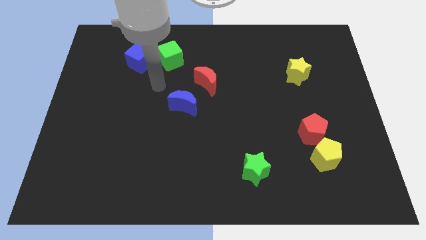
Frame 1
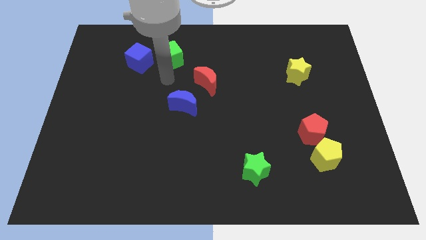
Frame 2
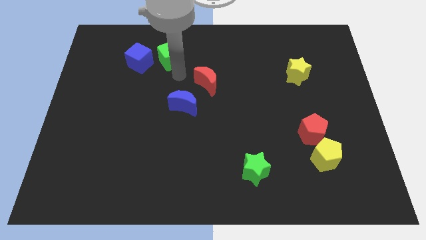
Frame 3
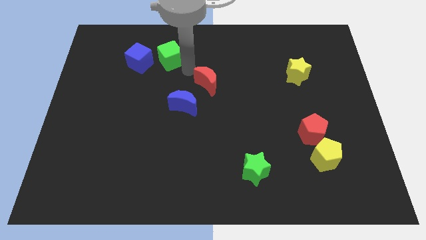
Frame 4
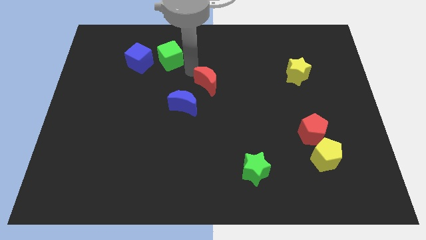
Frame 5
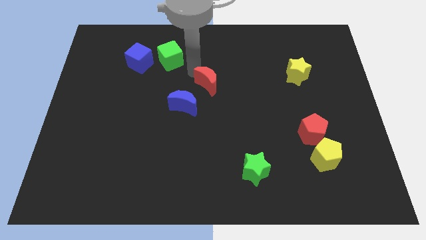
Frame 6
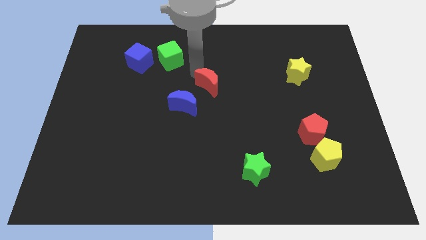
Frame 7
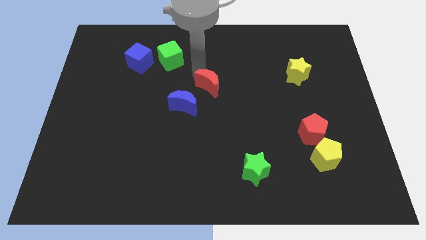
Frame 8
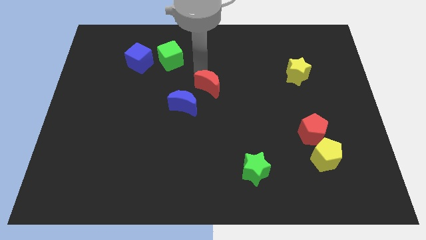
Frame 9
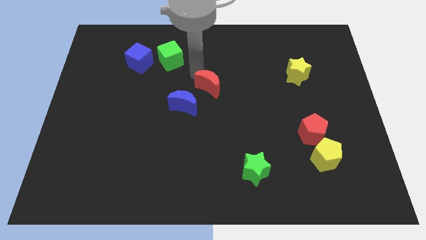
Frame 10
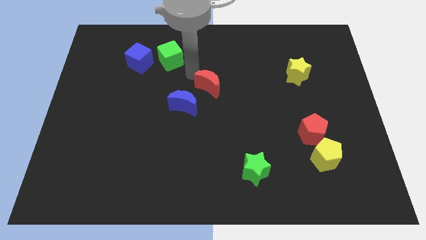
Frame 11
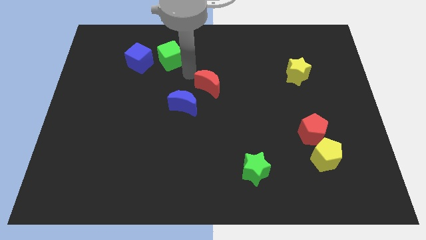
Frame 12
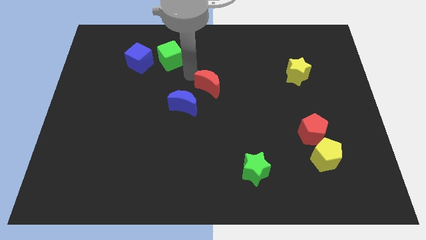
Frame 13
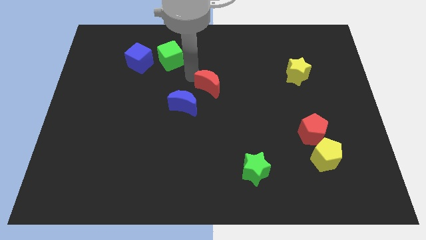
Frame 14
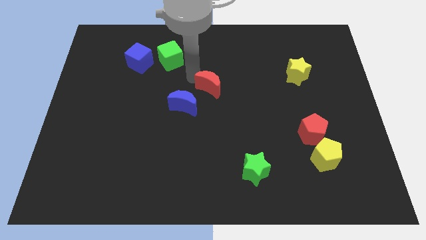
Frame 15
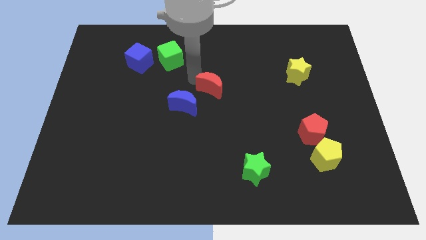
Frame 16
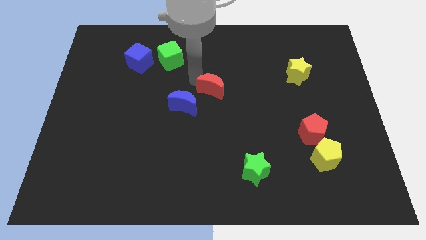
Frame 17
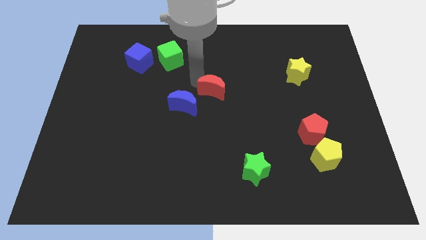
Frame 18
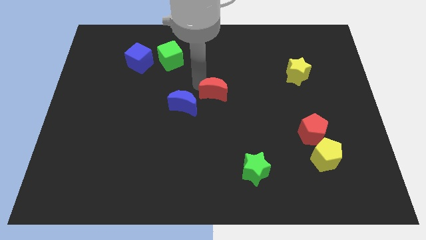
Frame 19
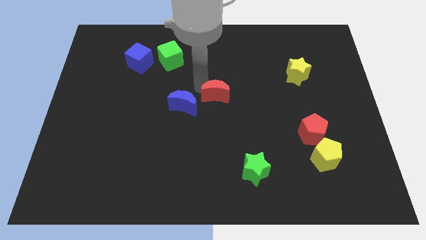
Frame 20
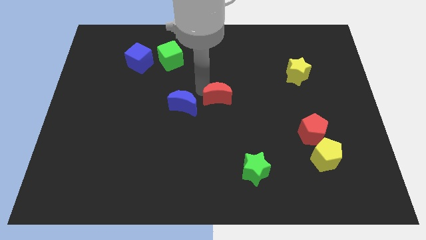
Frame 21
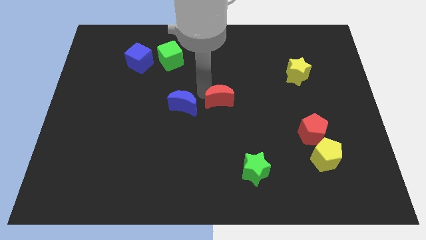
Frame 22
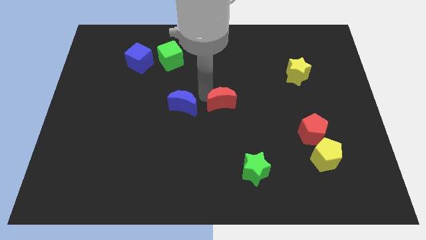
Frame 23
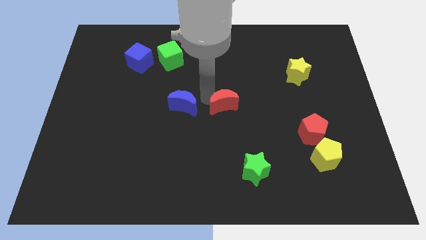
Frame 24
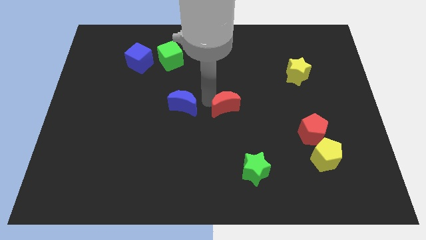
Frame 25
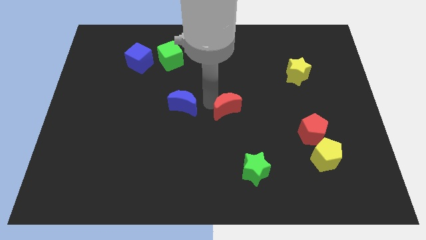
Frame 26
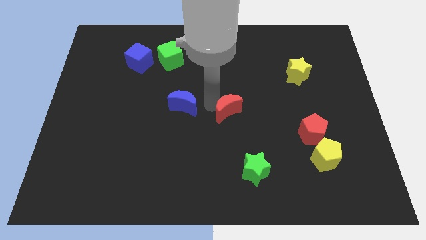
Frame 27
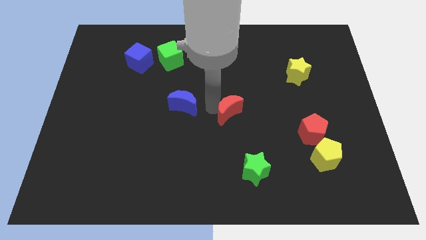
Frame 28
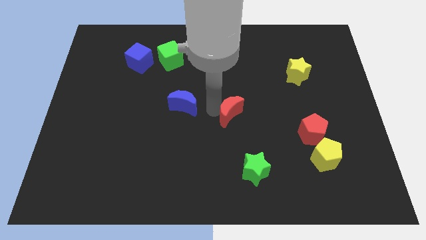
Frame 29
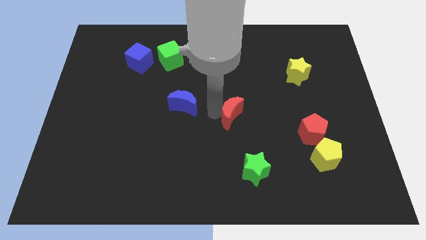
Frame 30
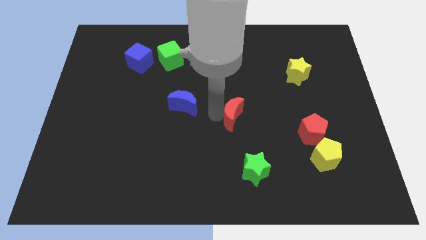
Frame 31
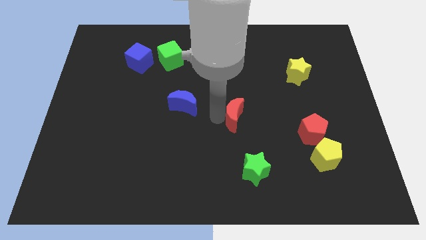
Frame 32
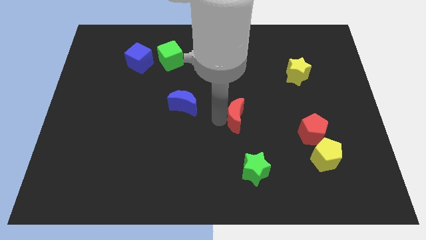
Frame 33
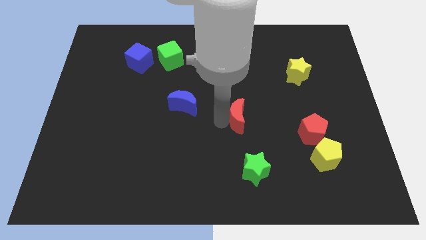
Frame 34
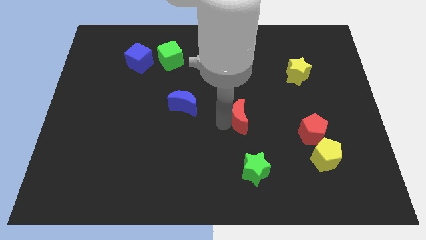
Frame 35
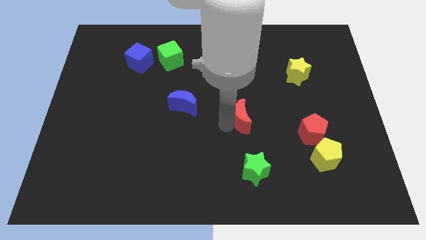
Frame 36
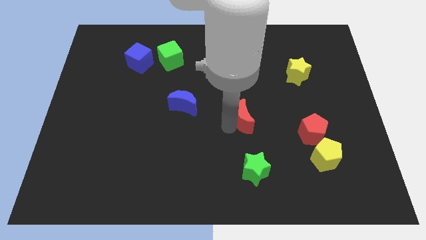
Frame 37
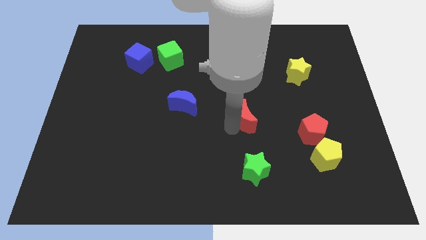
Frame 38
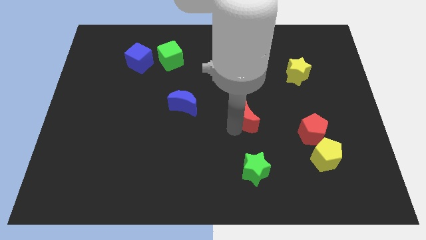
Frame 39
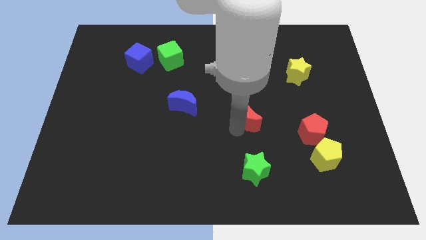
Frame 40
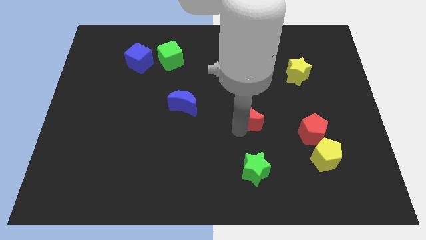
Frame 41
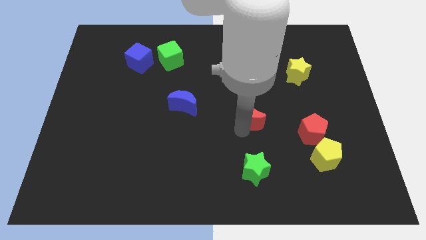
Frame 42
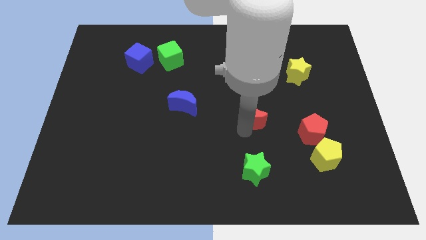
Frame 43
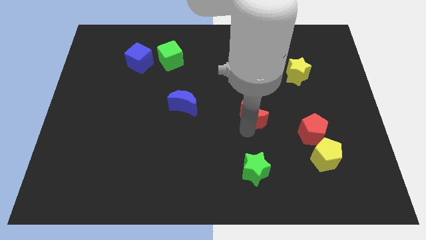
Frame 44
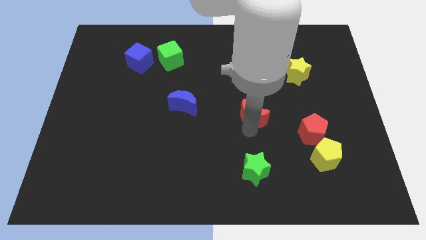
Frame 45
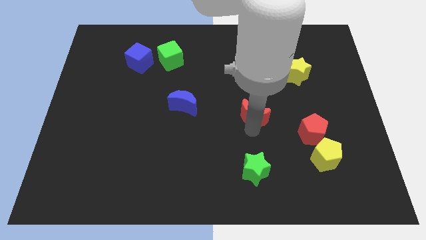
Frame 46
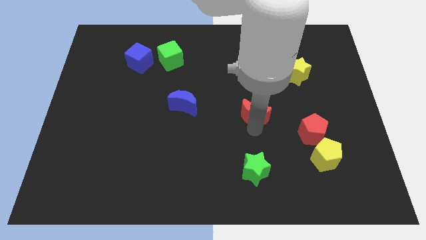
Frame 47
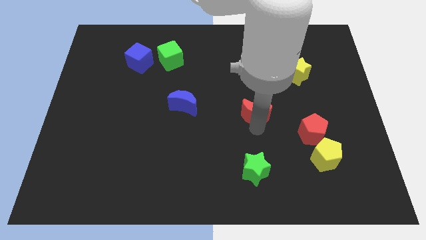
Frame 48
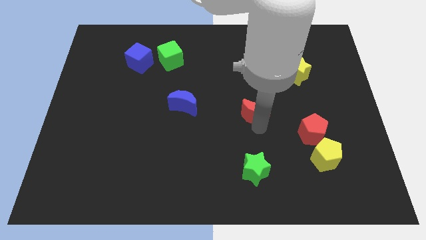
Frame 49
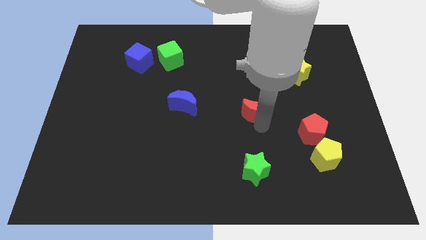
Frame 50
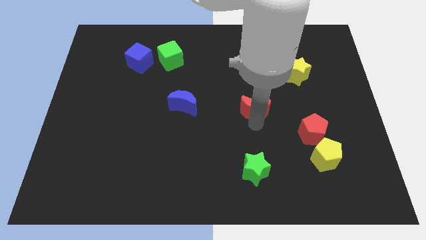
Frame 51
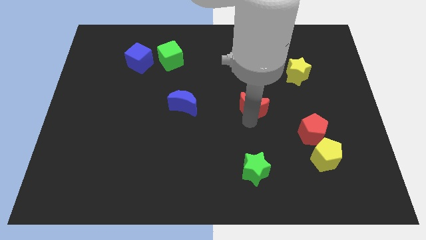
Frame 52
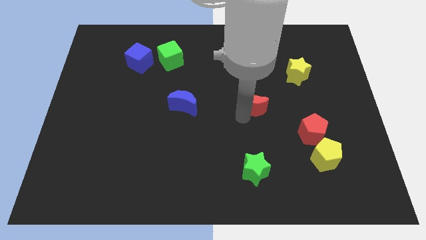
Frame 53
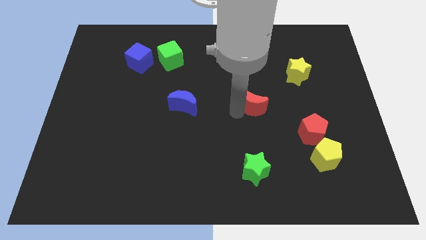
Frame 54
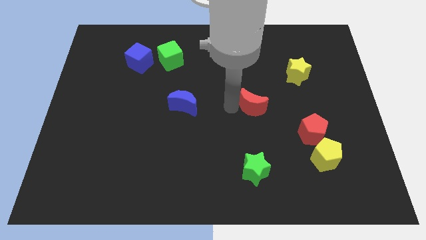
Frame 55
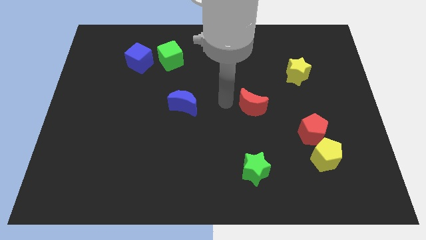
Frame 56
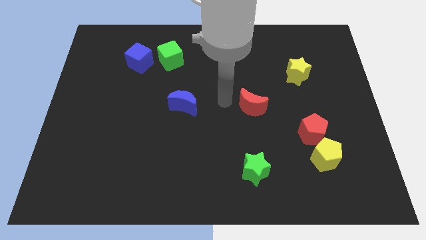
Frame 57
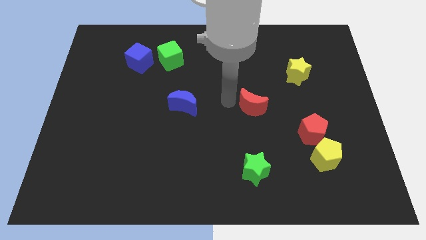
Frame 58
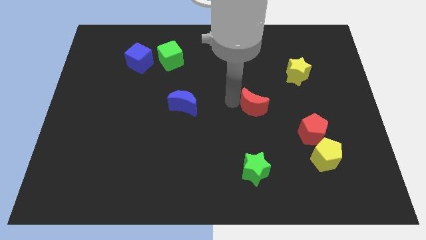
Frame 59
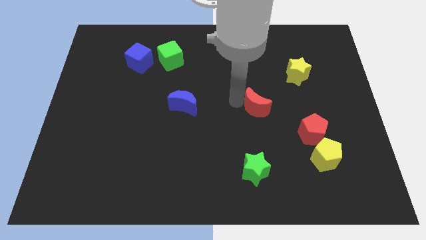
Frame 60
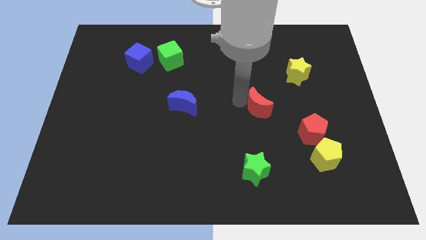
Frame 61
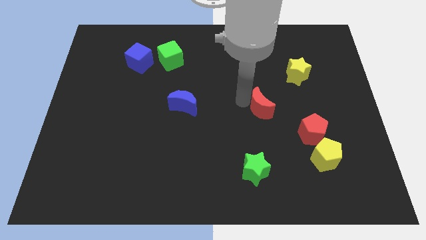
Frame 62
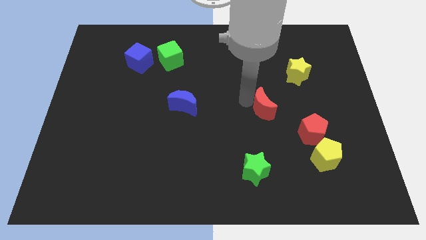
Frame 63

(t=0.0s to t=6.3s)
slide the red moon diagonally up and to the left of the red pentagon

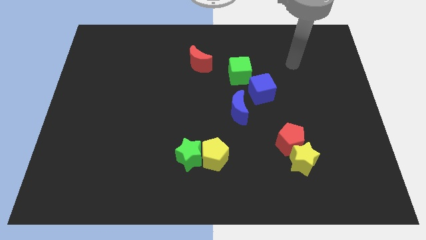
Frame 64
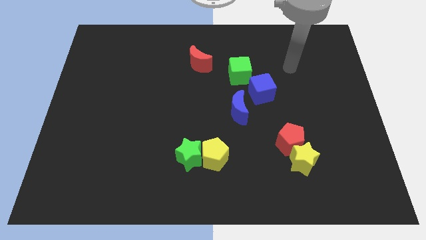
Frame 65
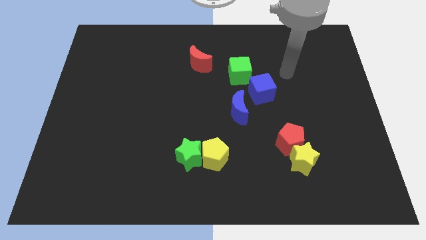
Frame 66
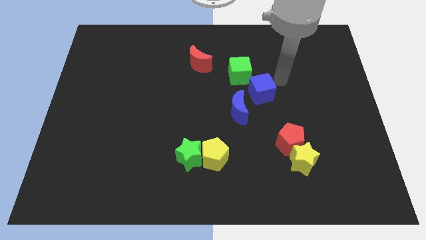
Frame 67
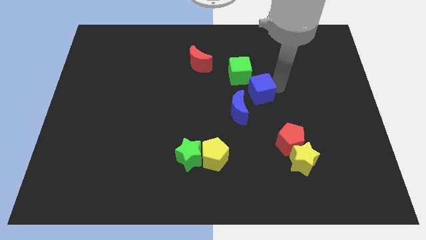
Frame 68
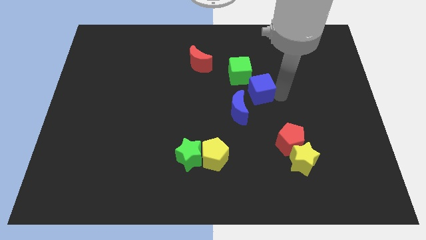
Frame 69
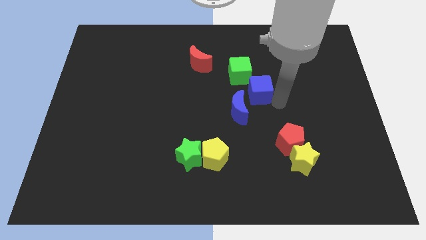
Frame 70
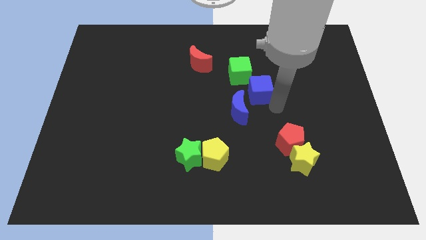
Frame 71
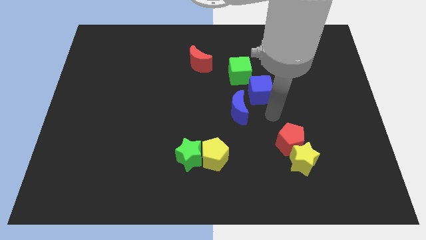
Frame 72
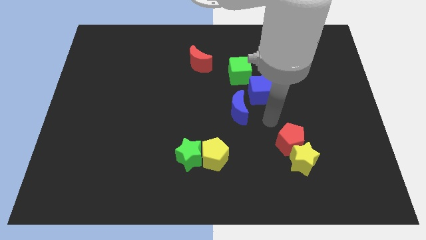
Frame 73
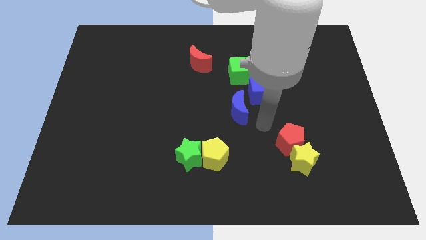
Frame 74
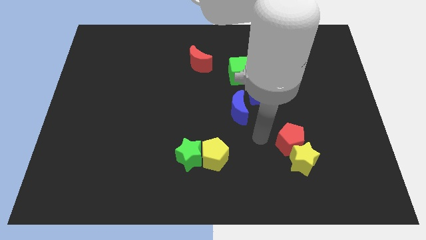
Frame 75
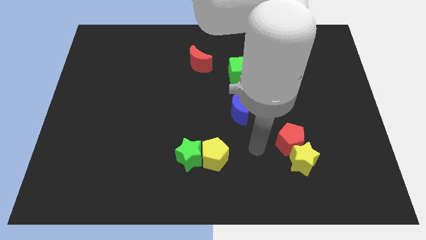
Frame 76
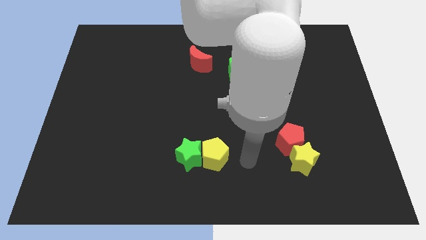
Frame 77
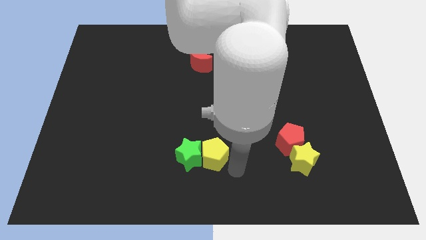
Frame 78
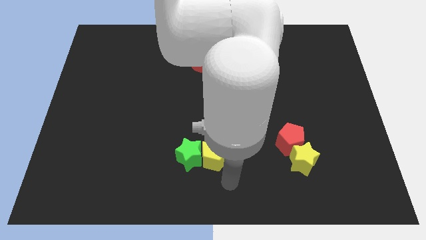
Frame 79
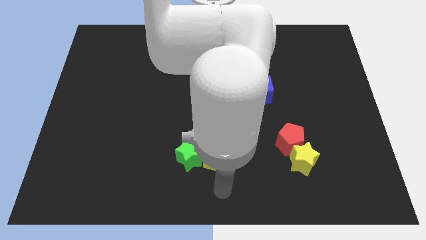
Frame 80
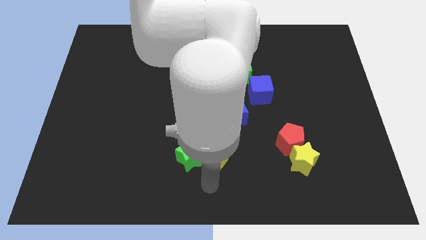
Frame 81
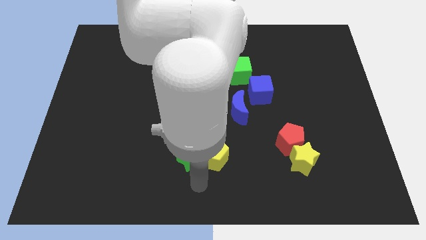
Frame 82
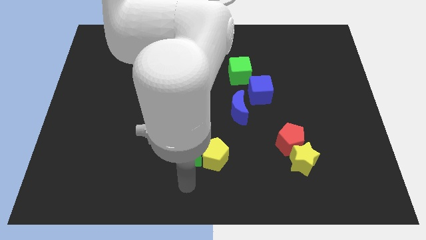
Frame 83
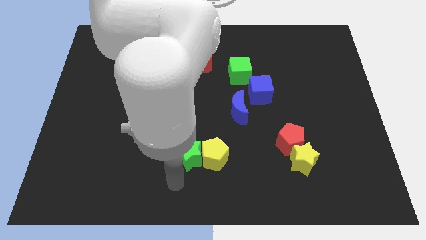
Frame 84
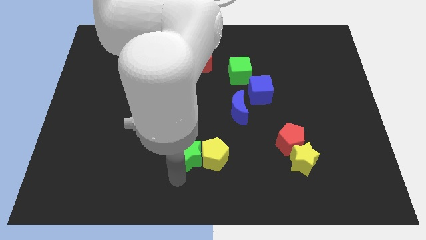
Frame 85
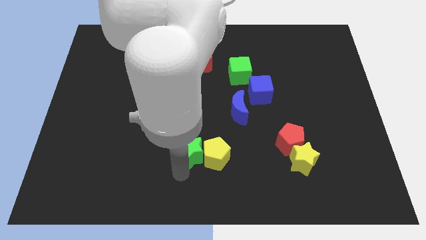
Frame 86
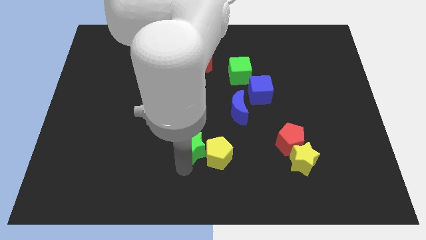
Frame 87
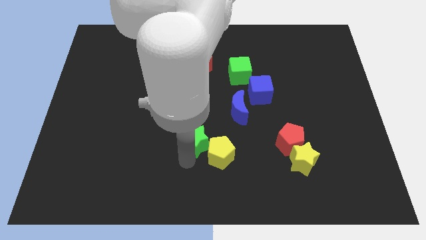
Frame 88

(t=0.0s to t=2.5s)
put the green star to the bottom left side of the blue moon
